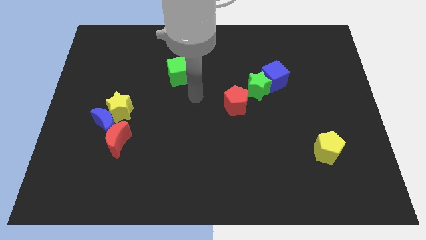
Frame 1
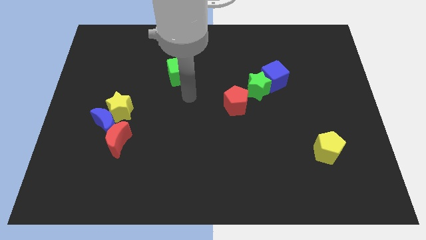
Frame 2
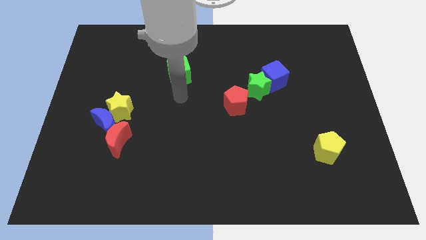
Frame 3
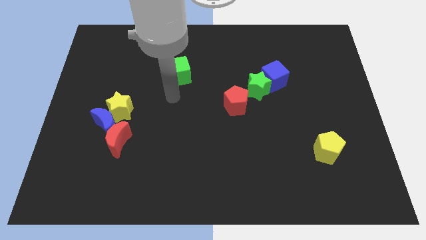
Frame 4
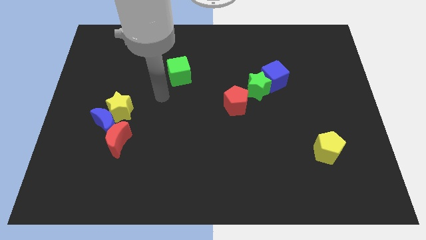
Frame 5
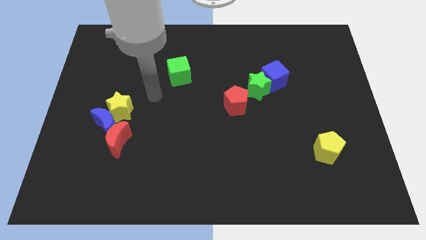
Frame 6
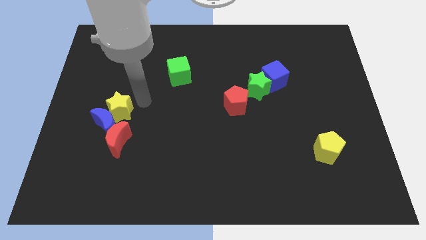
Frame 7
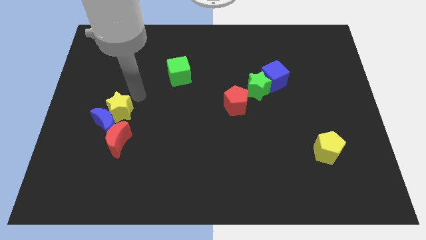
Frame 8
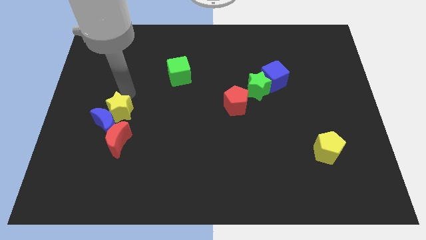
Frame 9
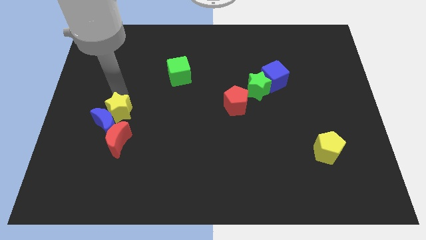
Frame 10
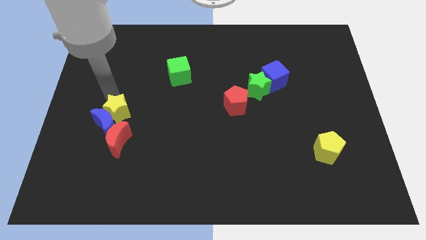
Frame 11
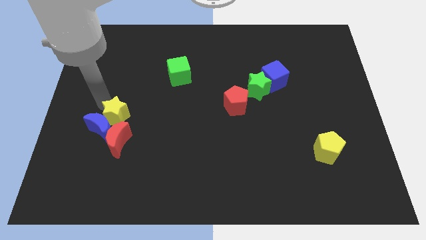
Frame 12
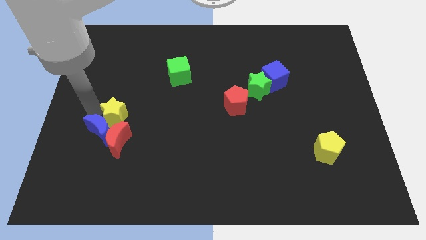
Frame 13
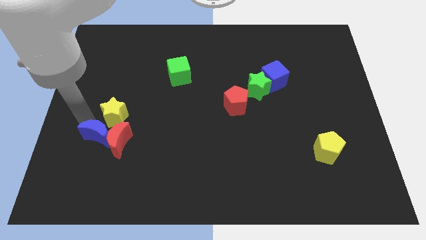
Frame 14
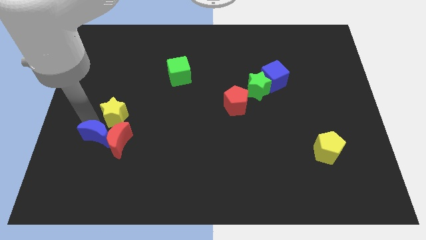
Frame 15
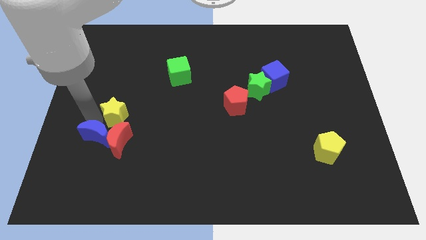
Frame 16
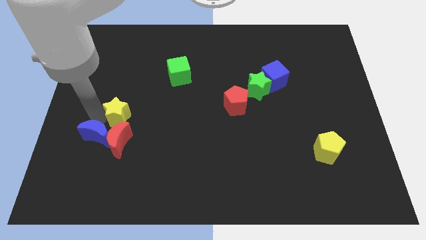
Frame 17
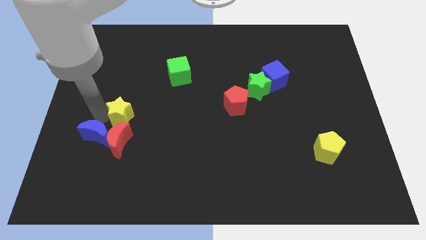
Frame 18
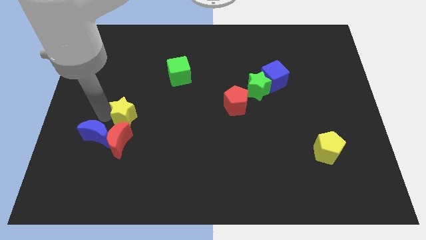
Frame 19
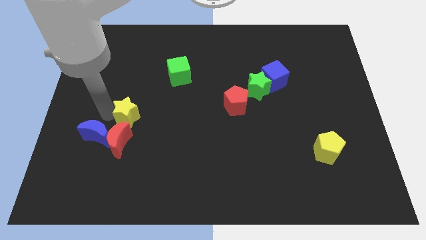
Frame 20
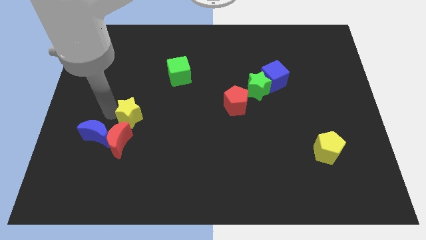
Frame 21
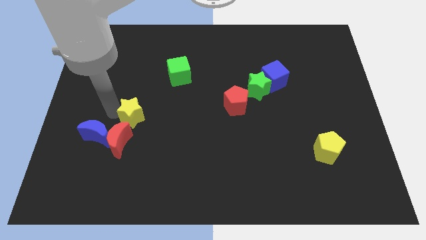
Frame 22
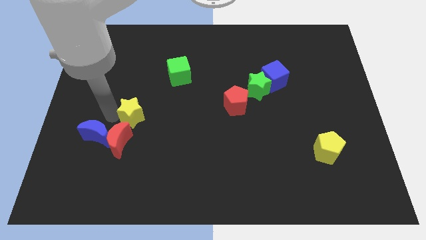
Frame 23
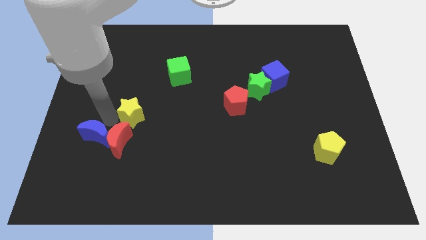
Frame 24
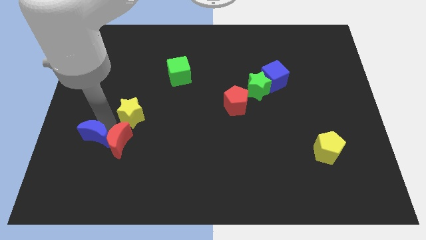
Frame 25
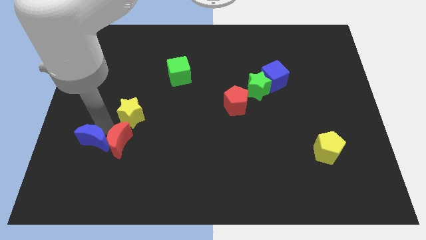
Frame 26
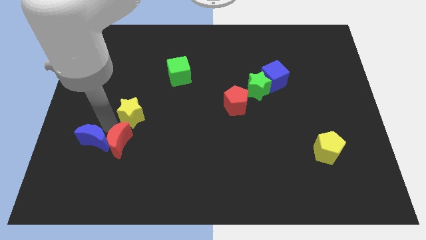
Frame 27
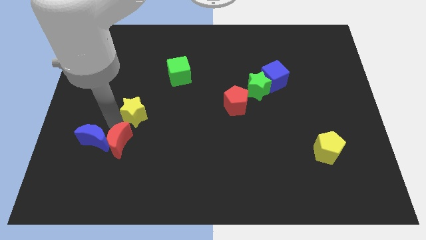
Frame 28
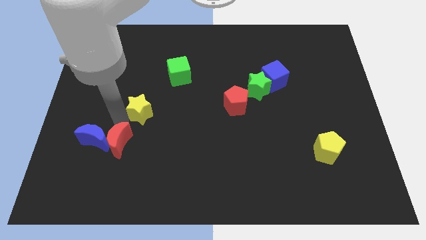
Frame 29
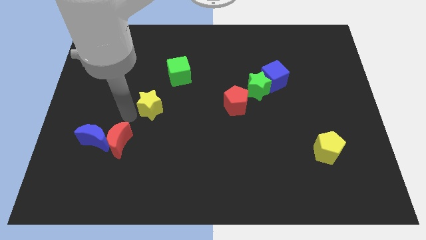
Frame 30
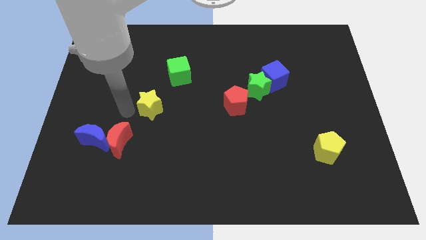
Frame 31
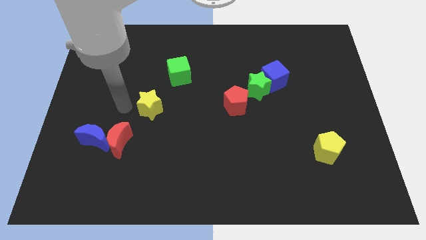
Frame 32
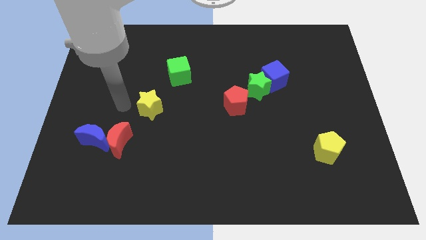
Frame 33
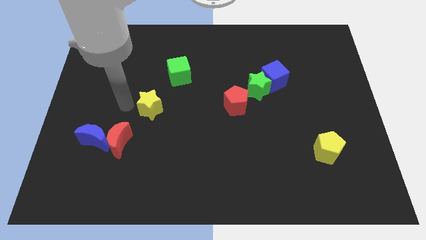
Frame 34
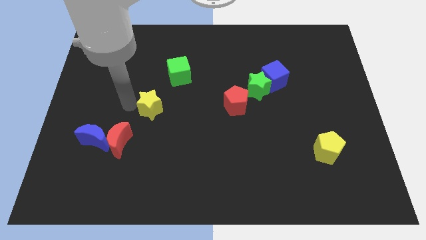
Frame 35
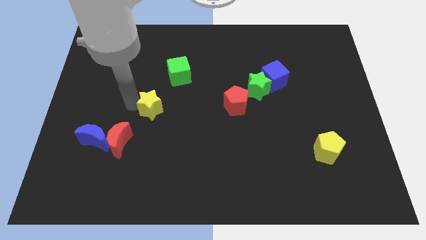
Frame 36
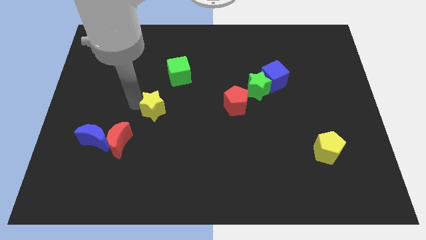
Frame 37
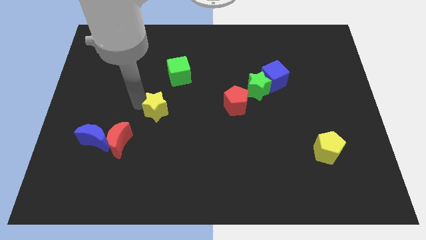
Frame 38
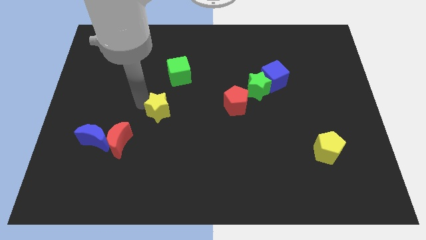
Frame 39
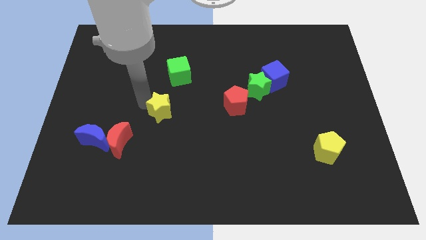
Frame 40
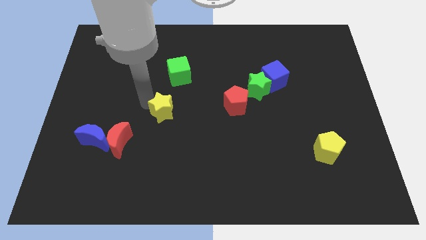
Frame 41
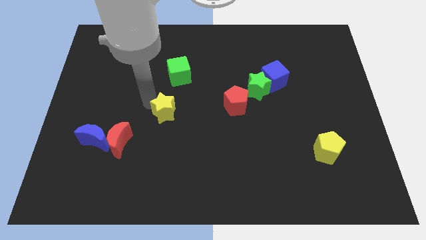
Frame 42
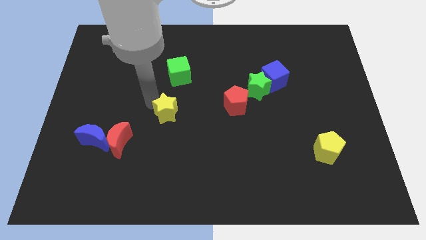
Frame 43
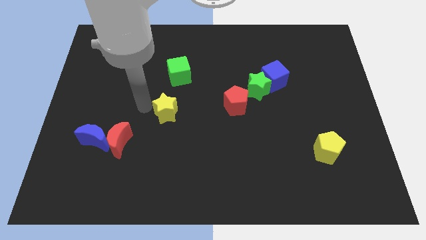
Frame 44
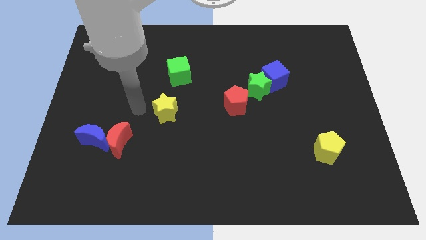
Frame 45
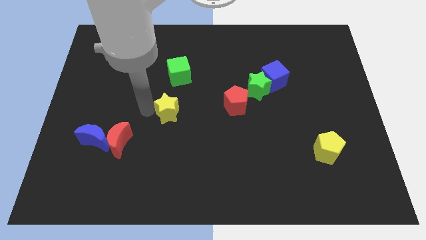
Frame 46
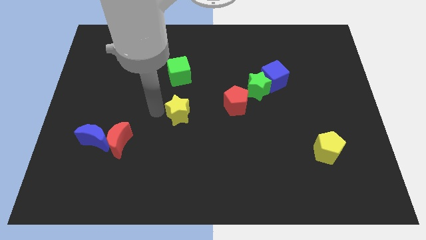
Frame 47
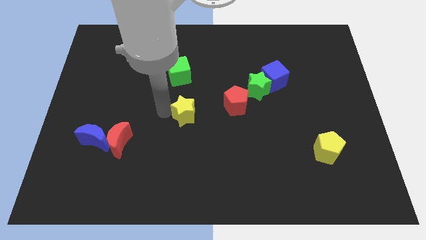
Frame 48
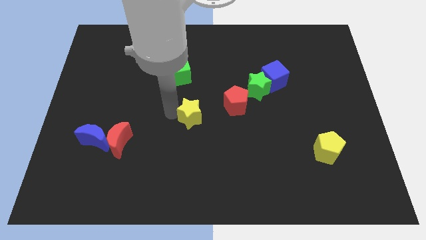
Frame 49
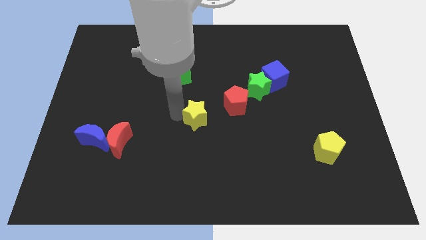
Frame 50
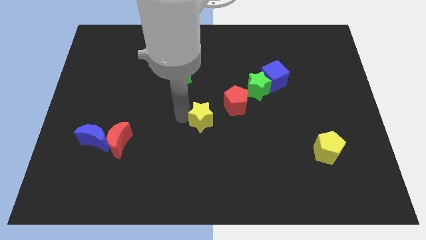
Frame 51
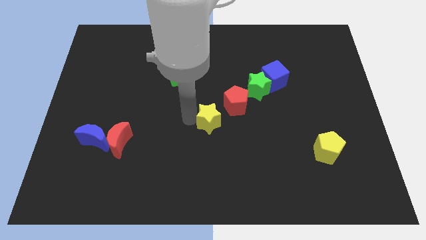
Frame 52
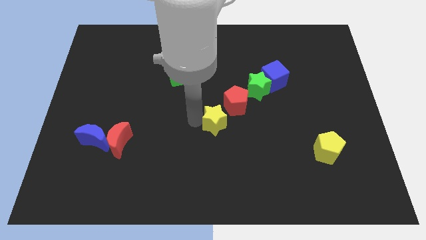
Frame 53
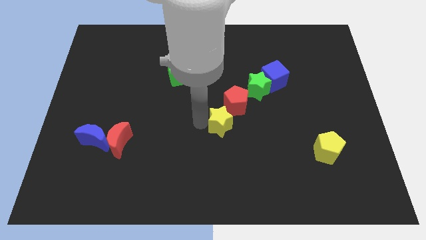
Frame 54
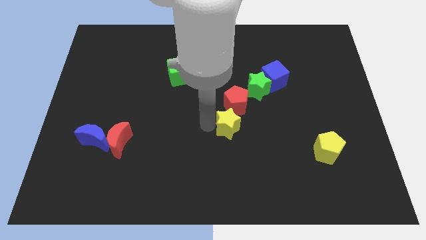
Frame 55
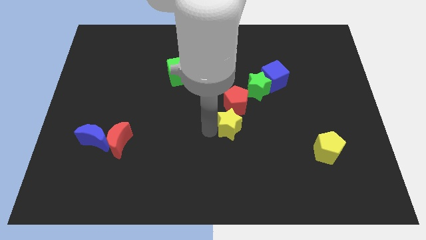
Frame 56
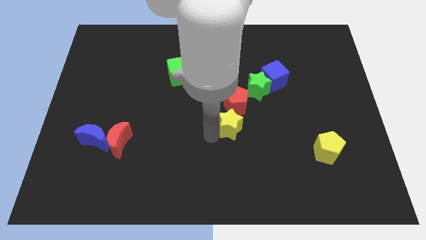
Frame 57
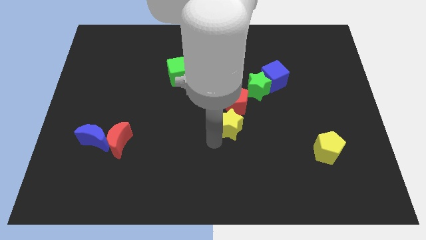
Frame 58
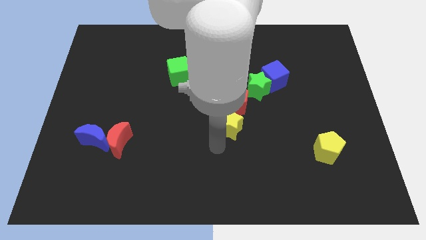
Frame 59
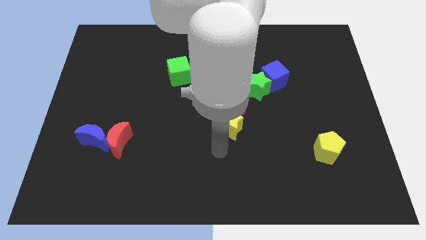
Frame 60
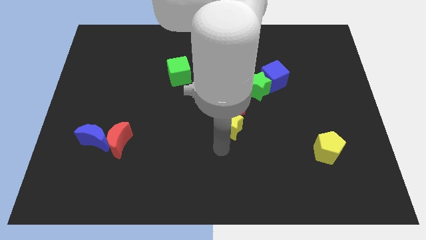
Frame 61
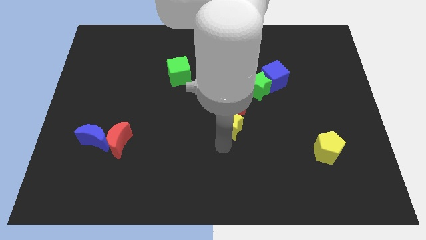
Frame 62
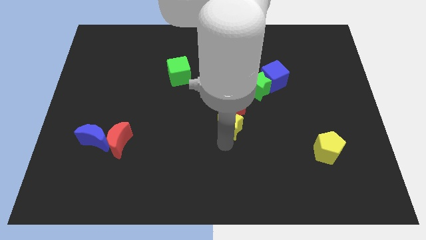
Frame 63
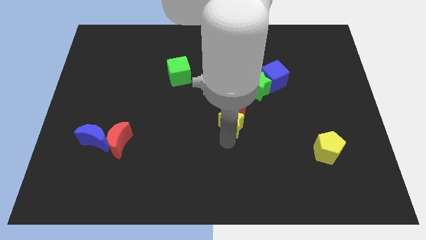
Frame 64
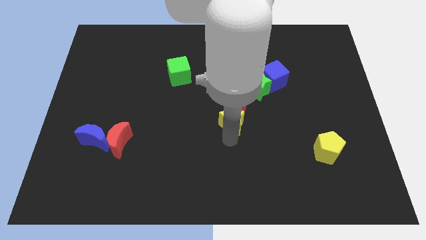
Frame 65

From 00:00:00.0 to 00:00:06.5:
slide the yellow star diagonally down and to the left of the green star

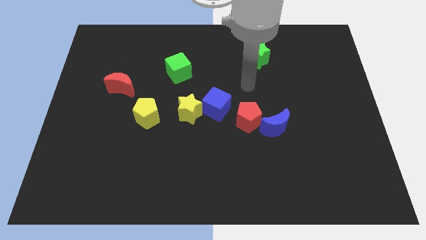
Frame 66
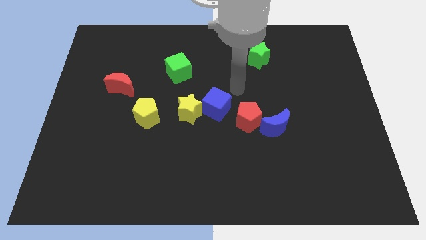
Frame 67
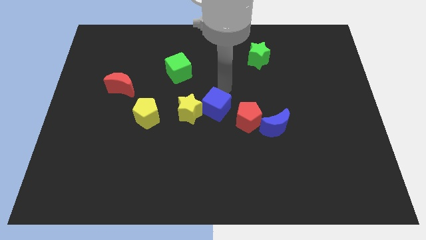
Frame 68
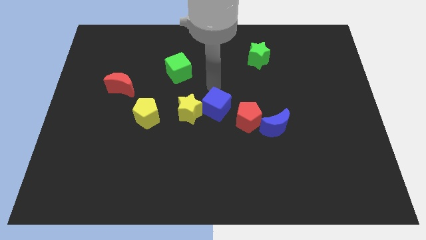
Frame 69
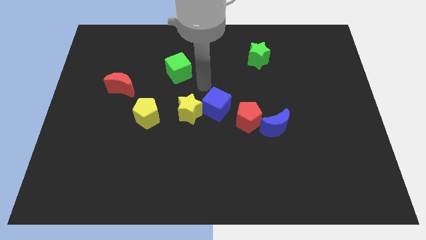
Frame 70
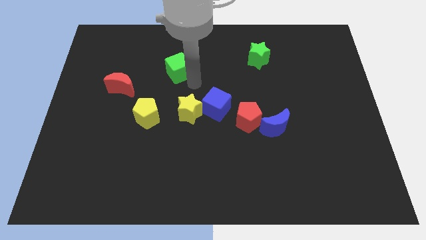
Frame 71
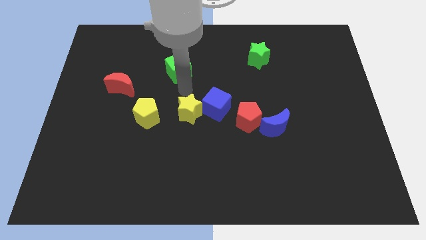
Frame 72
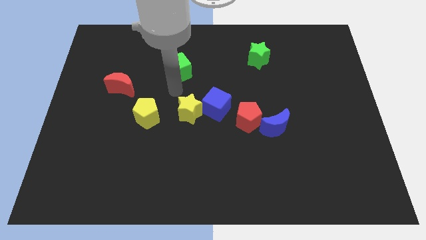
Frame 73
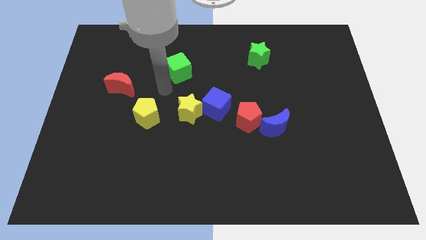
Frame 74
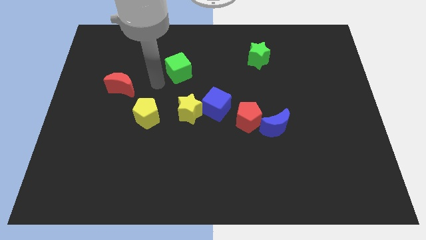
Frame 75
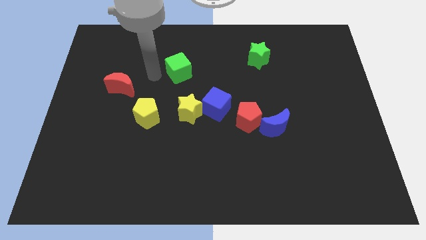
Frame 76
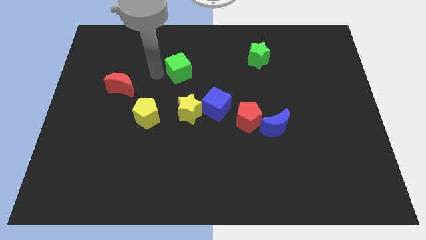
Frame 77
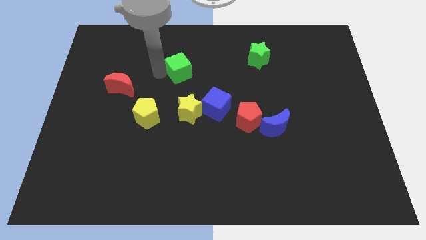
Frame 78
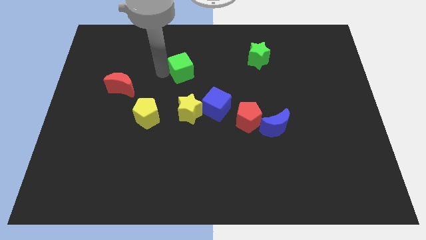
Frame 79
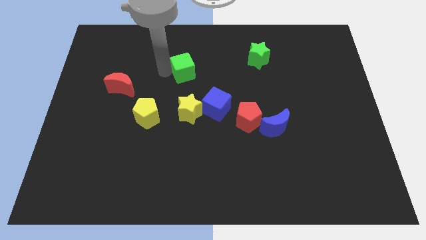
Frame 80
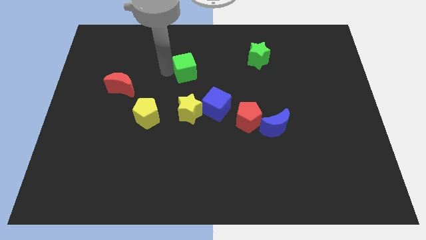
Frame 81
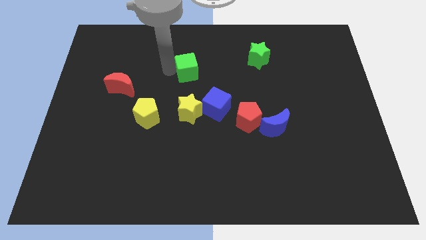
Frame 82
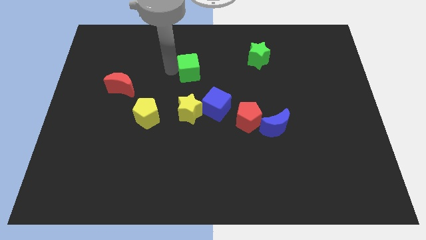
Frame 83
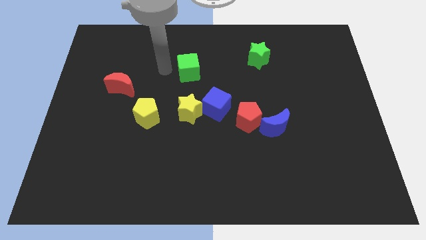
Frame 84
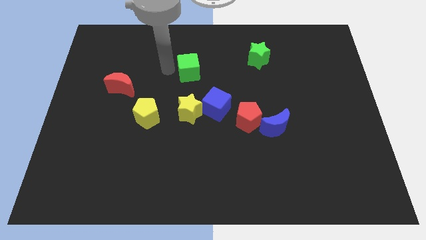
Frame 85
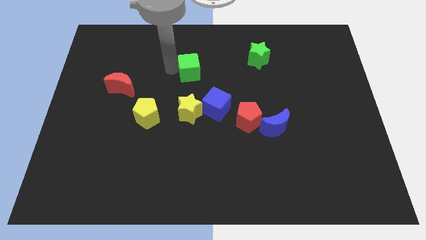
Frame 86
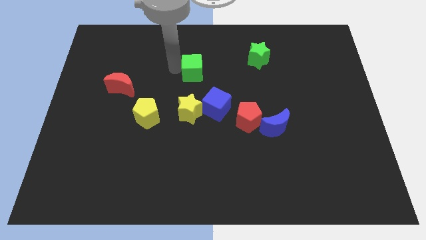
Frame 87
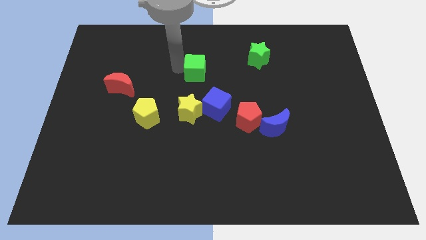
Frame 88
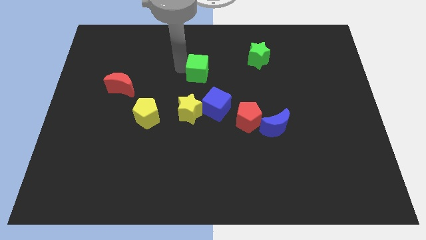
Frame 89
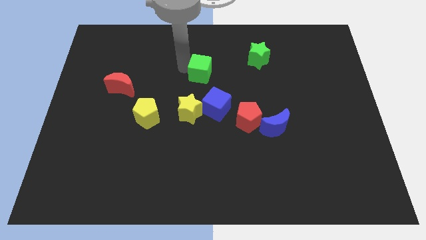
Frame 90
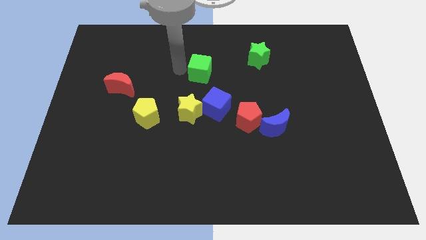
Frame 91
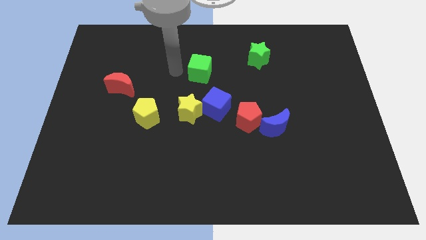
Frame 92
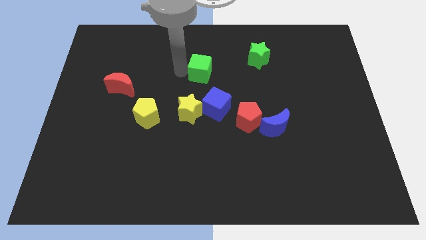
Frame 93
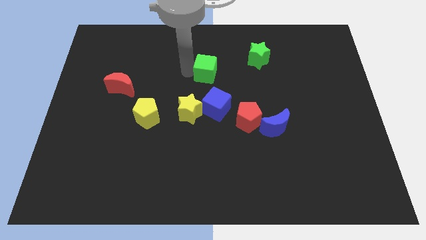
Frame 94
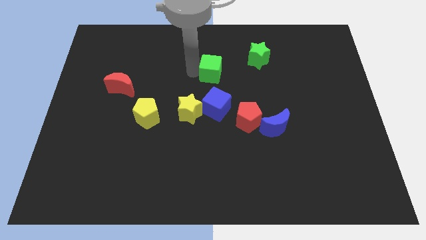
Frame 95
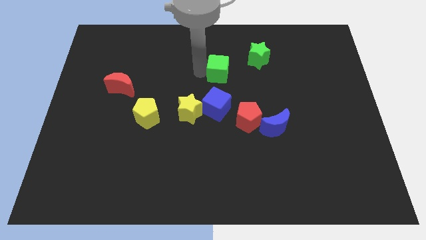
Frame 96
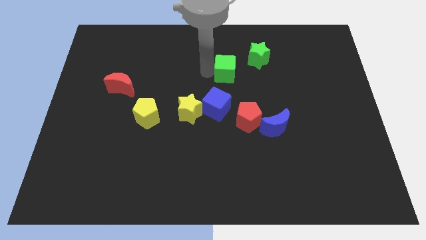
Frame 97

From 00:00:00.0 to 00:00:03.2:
put the green cube diagonally down and to the left of the green star
